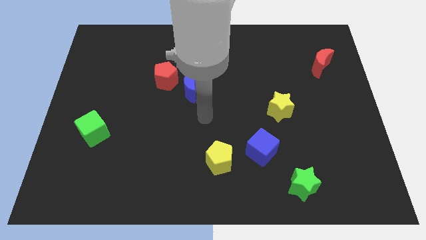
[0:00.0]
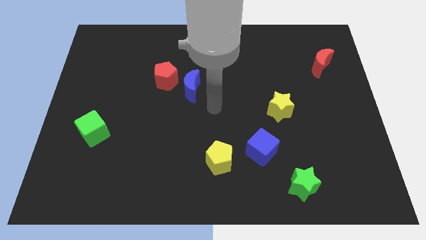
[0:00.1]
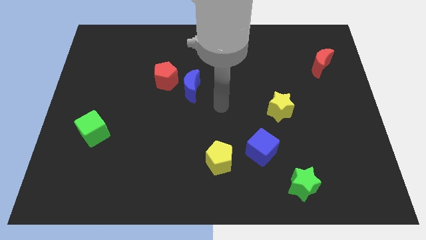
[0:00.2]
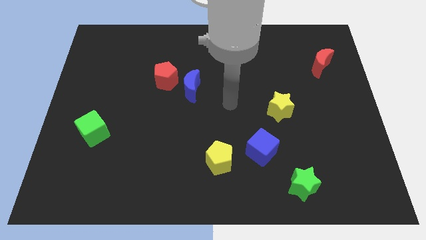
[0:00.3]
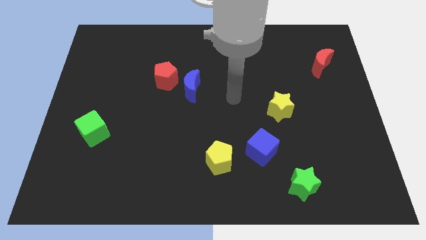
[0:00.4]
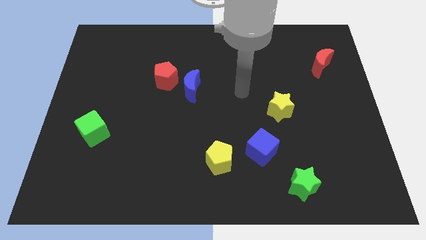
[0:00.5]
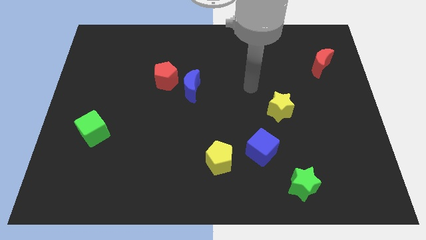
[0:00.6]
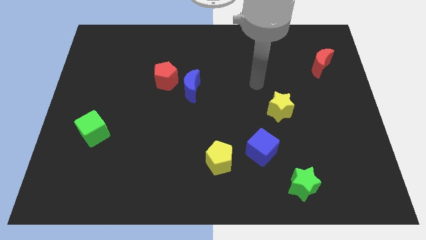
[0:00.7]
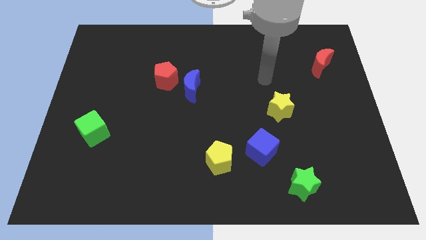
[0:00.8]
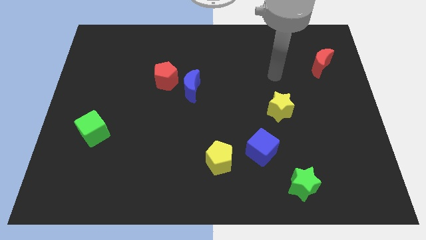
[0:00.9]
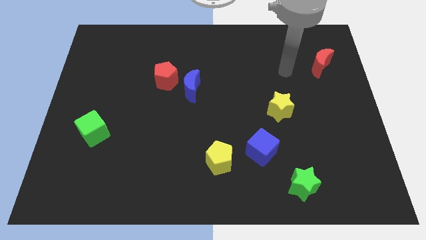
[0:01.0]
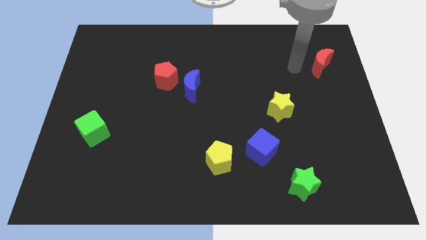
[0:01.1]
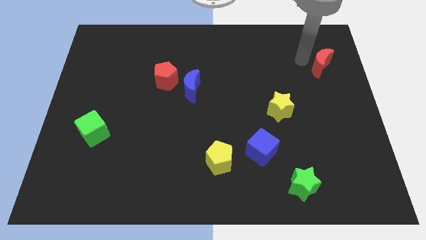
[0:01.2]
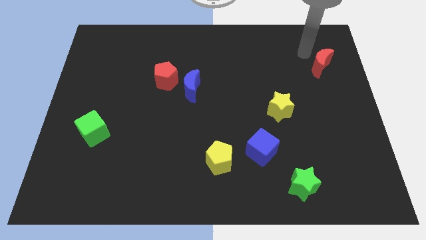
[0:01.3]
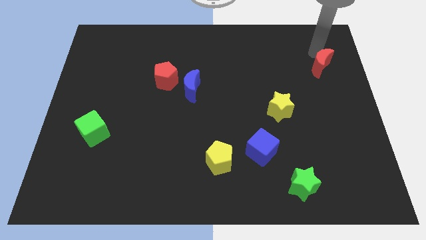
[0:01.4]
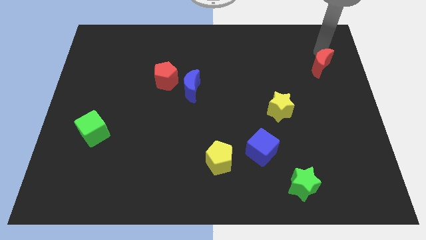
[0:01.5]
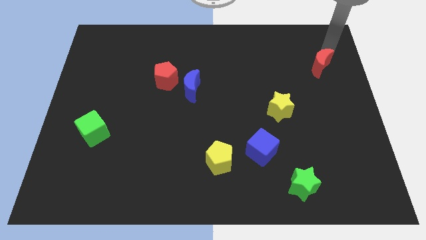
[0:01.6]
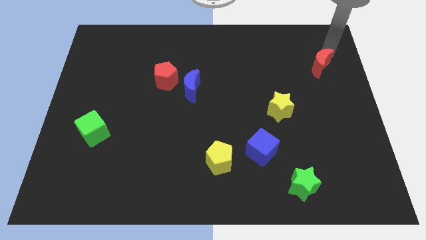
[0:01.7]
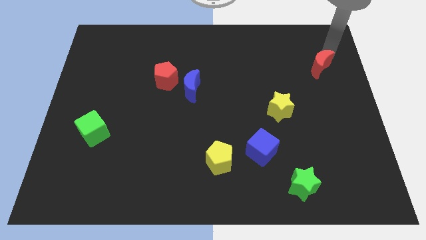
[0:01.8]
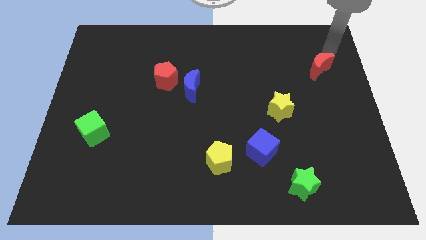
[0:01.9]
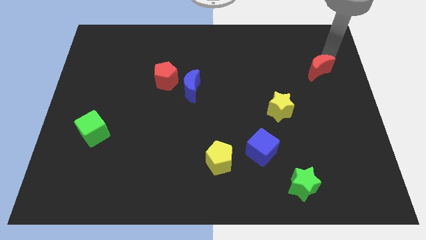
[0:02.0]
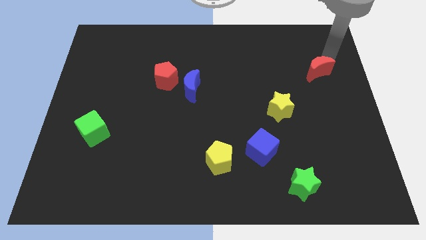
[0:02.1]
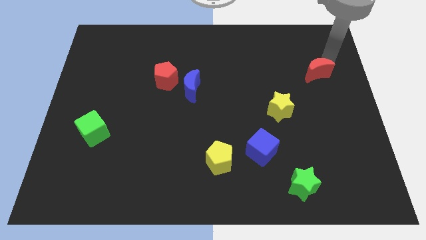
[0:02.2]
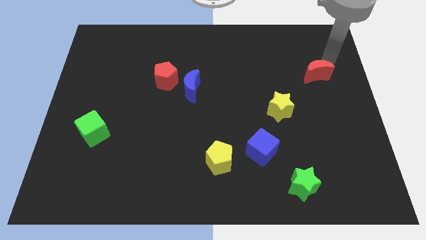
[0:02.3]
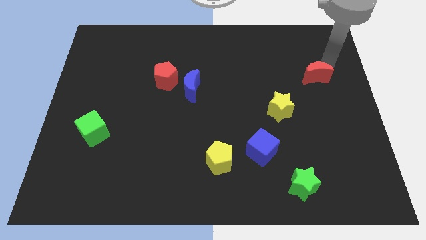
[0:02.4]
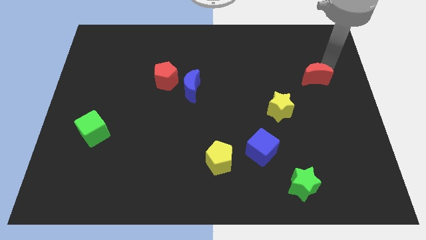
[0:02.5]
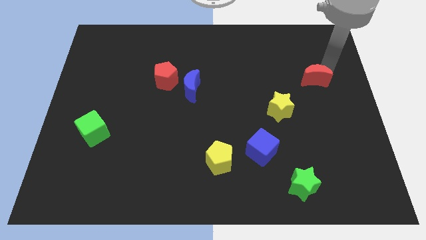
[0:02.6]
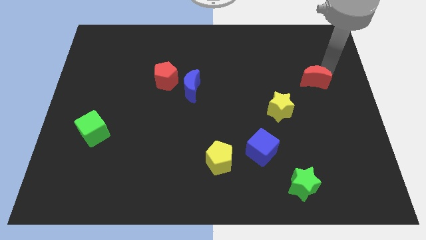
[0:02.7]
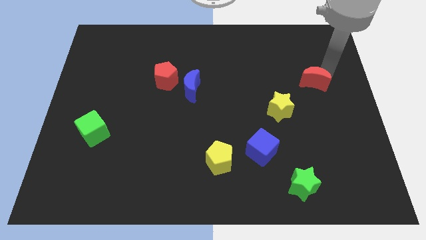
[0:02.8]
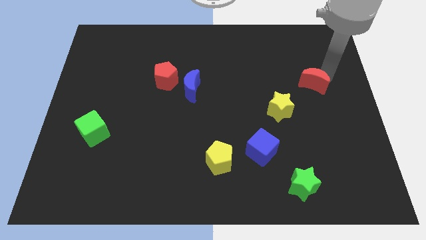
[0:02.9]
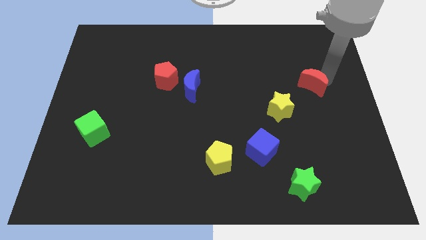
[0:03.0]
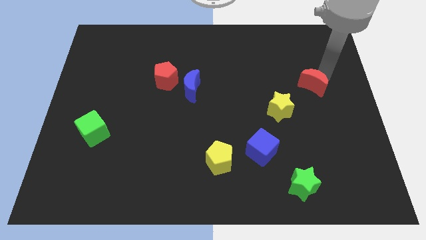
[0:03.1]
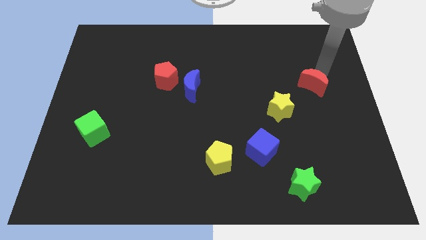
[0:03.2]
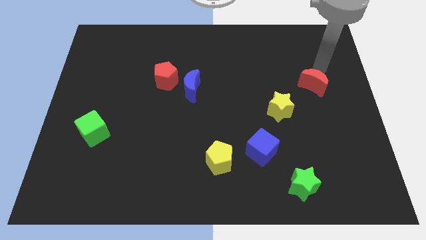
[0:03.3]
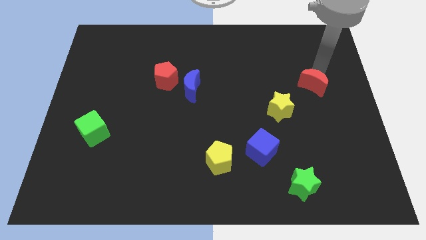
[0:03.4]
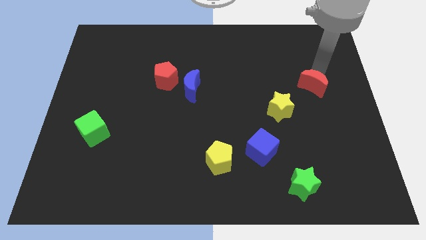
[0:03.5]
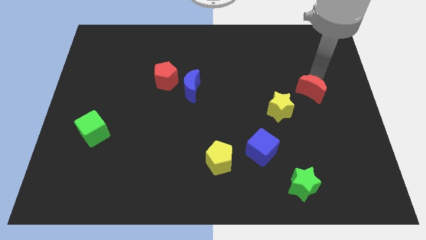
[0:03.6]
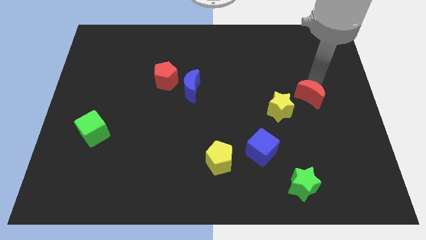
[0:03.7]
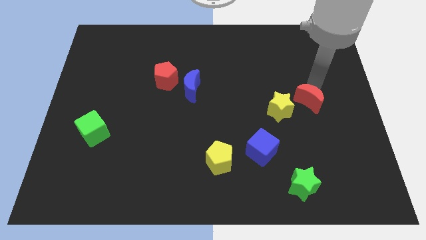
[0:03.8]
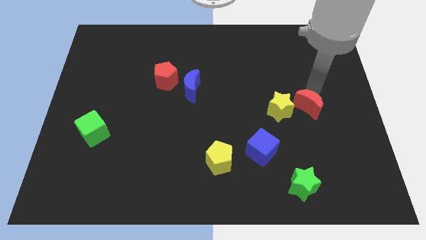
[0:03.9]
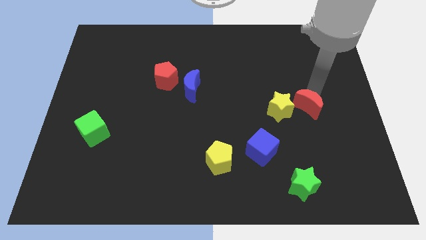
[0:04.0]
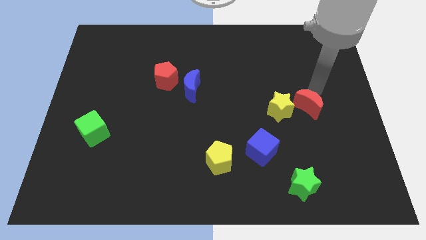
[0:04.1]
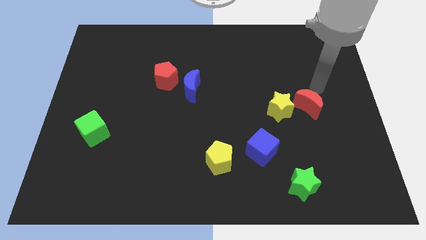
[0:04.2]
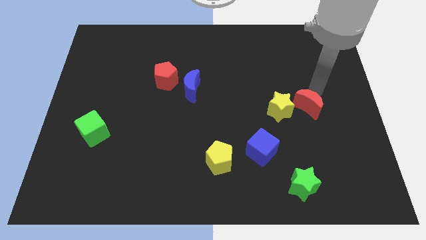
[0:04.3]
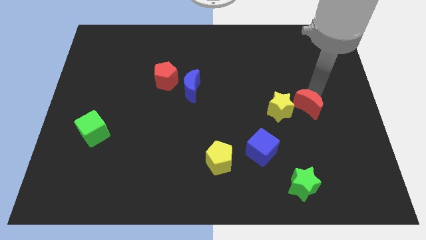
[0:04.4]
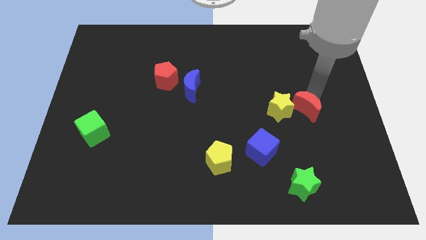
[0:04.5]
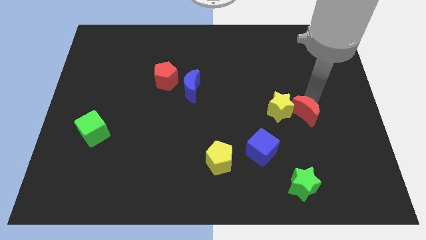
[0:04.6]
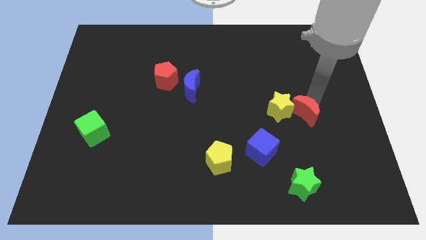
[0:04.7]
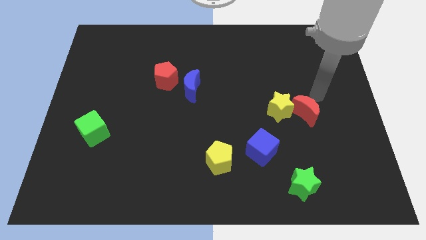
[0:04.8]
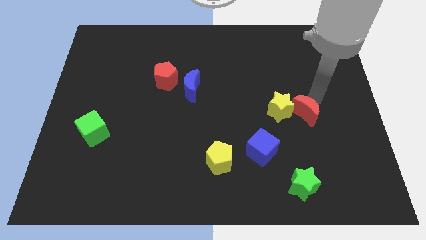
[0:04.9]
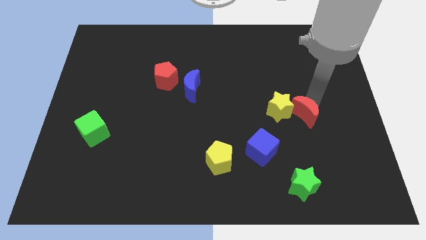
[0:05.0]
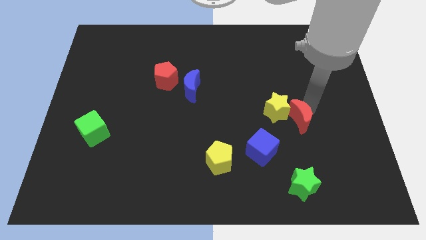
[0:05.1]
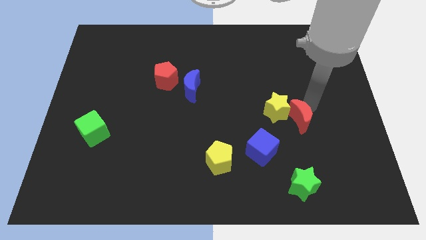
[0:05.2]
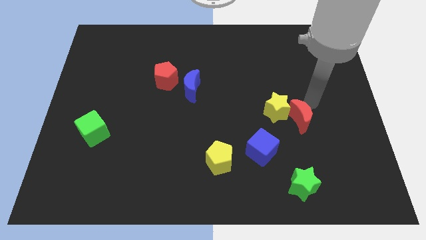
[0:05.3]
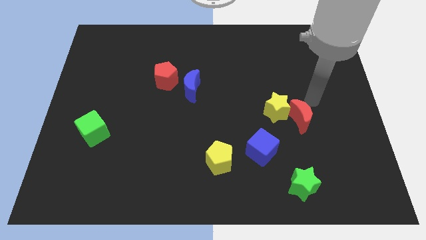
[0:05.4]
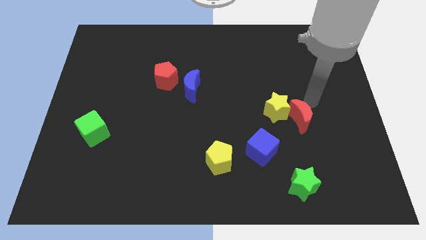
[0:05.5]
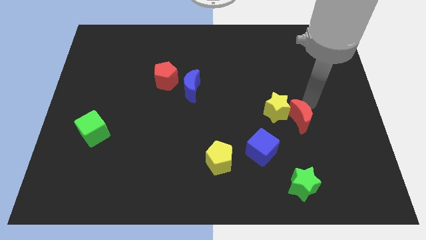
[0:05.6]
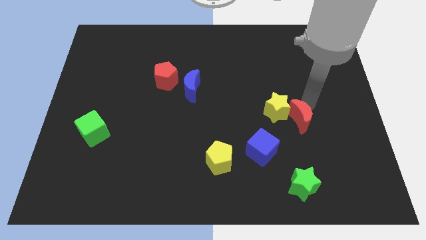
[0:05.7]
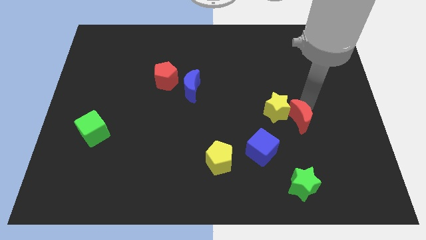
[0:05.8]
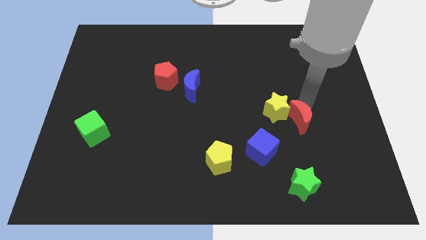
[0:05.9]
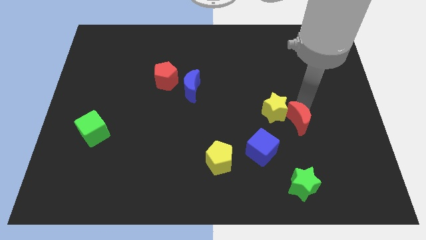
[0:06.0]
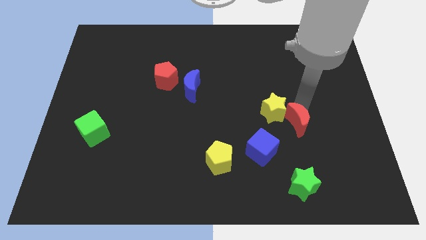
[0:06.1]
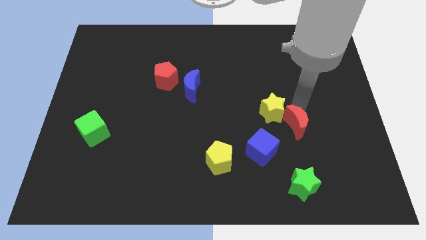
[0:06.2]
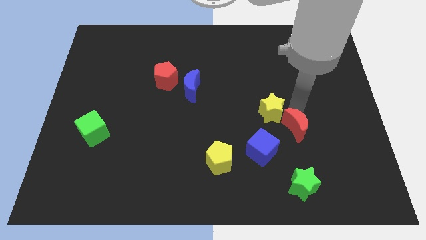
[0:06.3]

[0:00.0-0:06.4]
put the red moon below the yellow star
